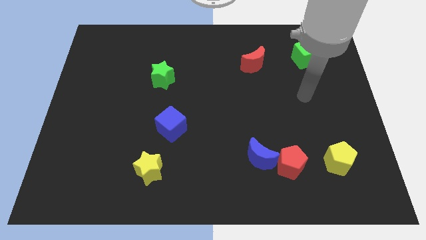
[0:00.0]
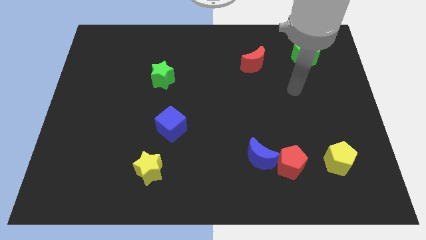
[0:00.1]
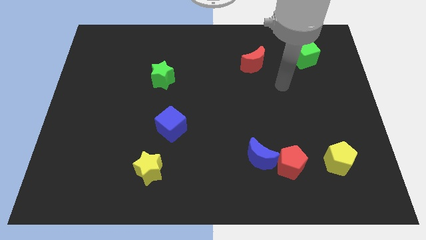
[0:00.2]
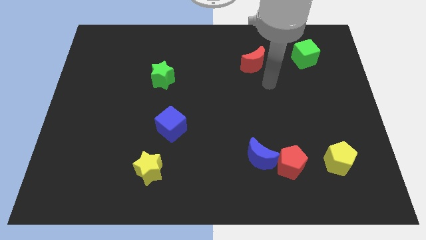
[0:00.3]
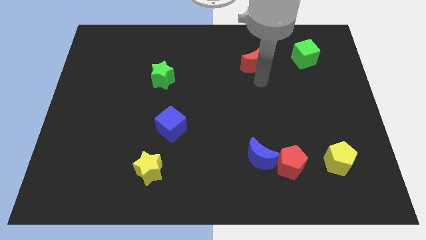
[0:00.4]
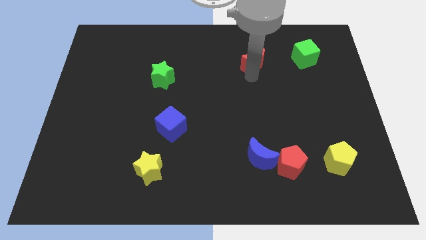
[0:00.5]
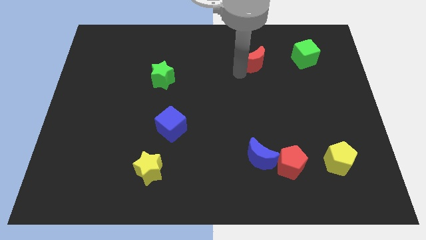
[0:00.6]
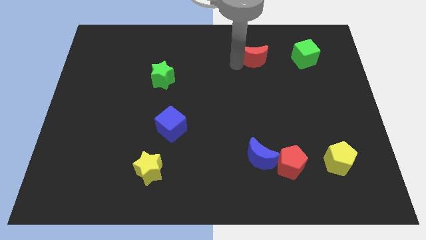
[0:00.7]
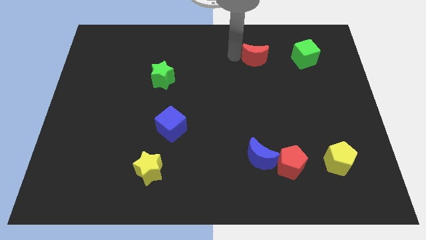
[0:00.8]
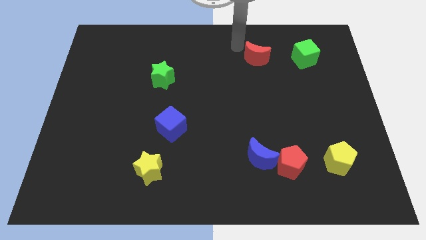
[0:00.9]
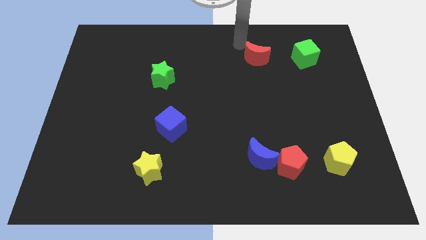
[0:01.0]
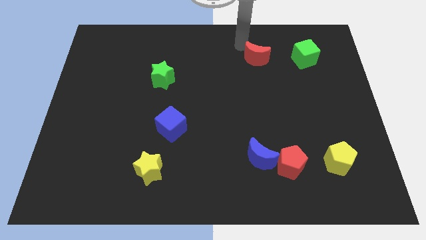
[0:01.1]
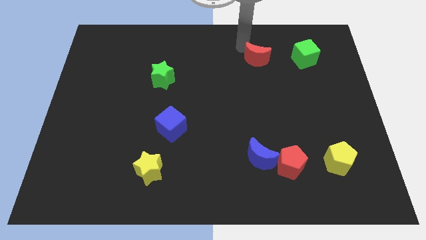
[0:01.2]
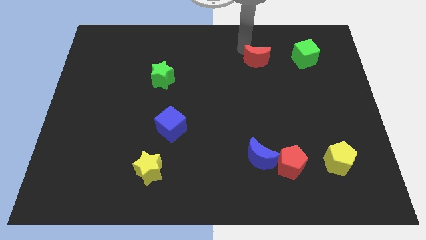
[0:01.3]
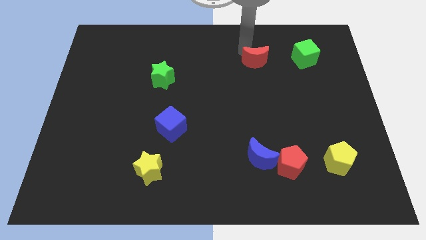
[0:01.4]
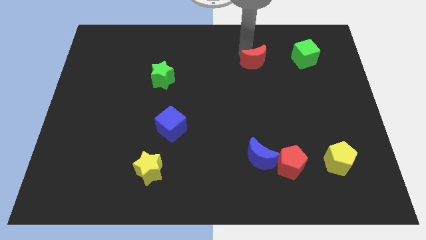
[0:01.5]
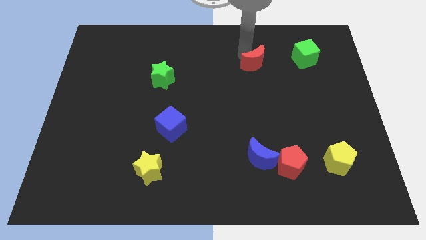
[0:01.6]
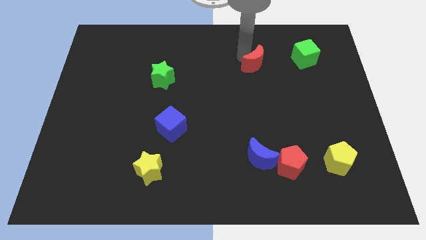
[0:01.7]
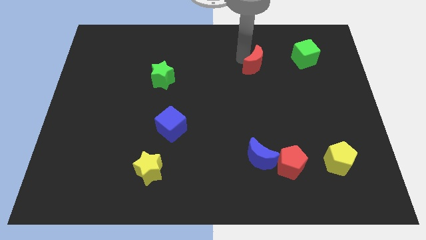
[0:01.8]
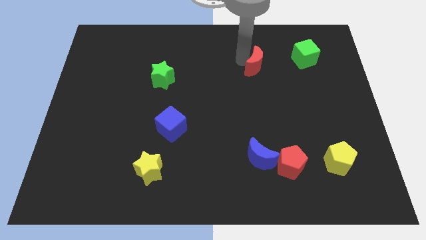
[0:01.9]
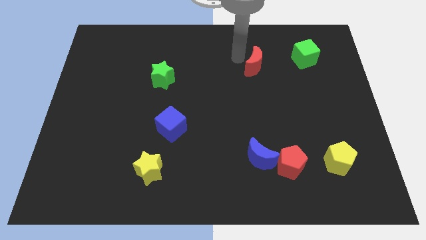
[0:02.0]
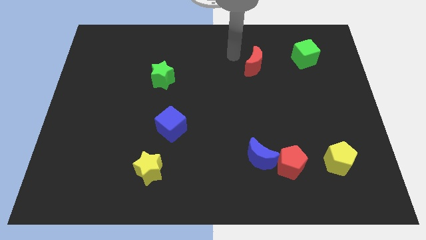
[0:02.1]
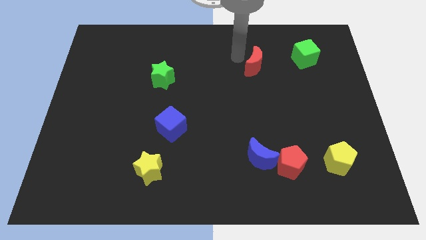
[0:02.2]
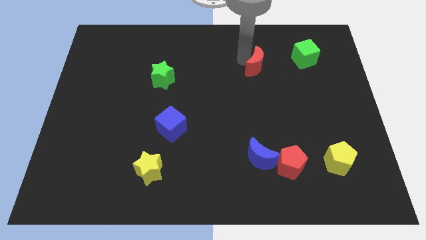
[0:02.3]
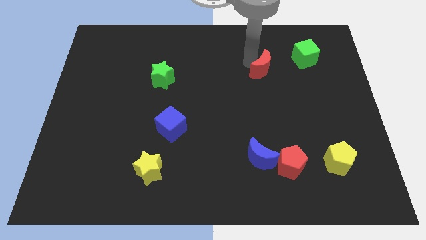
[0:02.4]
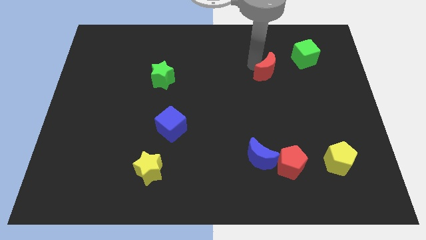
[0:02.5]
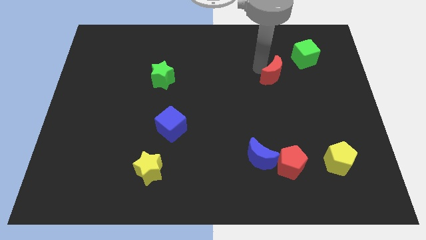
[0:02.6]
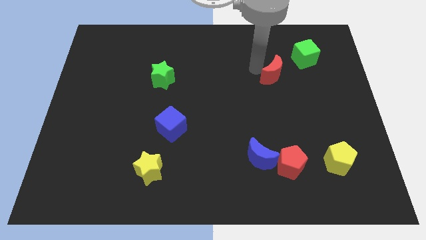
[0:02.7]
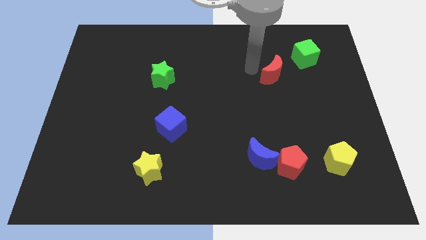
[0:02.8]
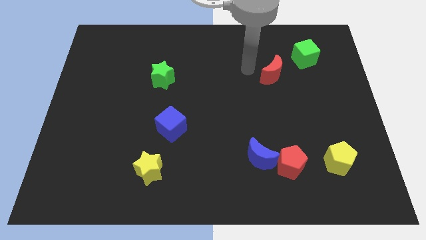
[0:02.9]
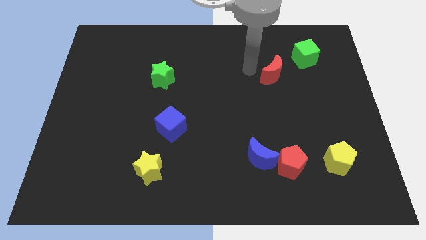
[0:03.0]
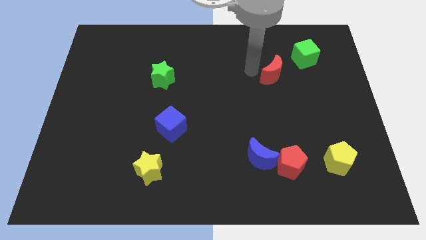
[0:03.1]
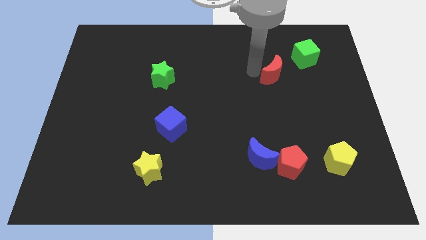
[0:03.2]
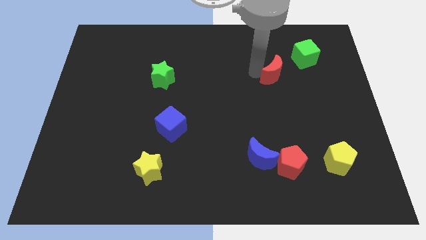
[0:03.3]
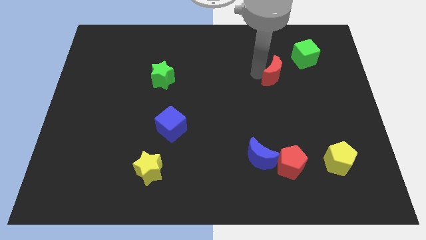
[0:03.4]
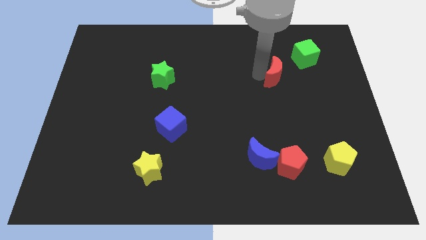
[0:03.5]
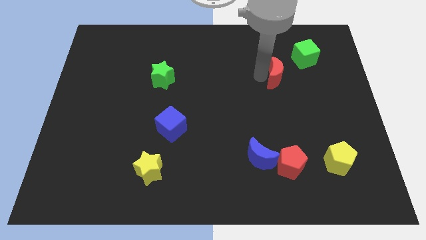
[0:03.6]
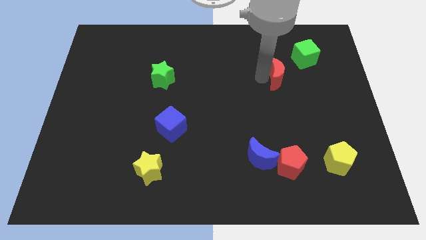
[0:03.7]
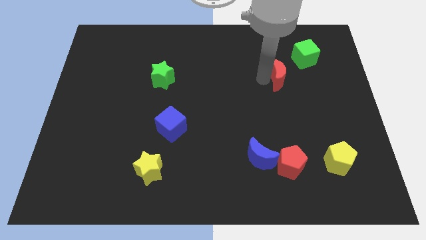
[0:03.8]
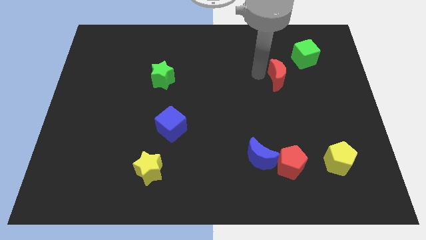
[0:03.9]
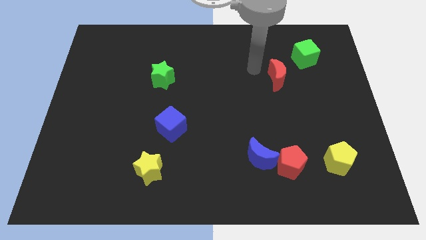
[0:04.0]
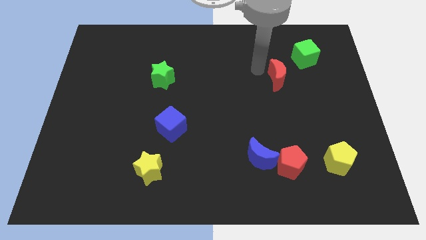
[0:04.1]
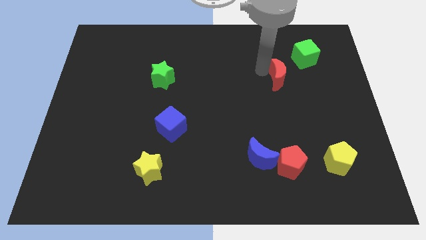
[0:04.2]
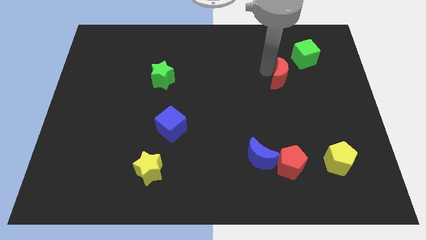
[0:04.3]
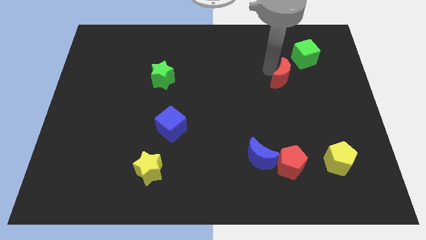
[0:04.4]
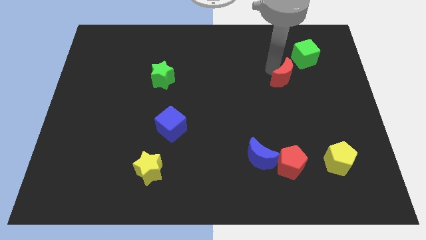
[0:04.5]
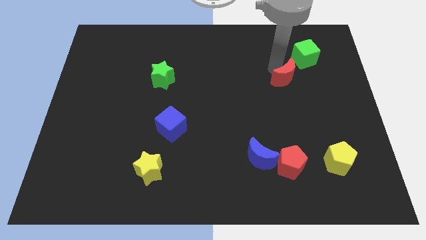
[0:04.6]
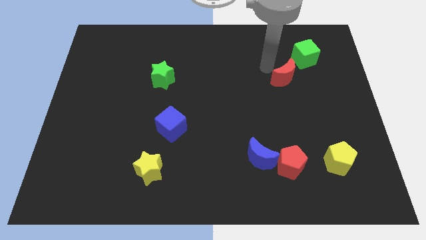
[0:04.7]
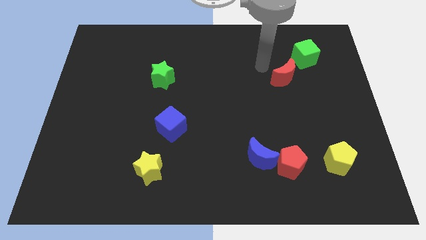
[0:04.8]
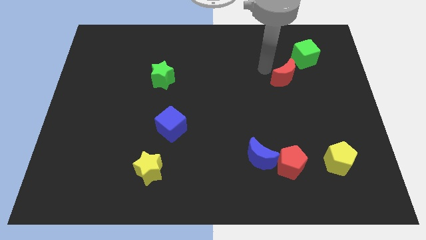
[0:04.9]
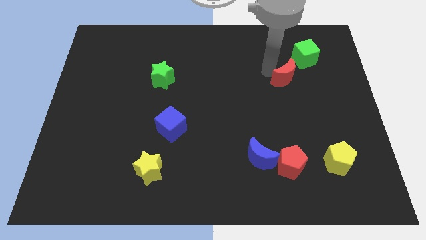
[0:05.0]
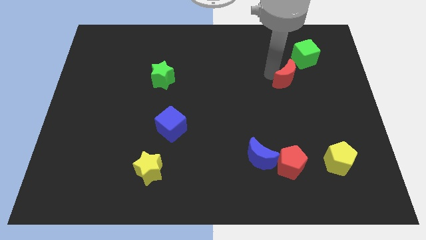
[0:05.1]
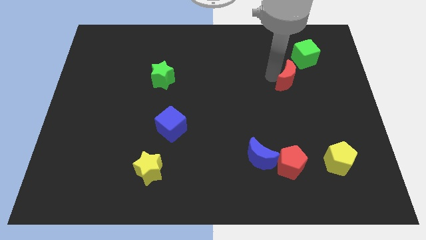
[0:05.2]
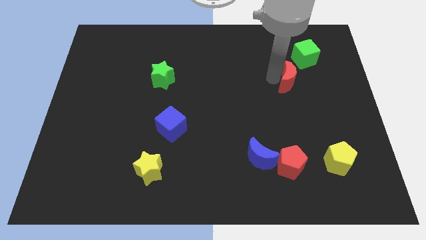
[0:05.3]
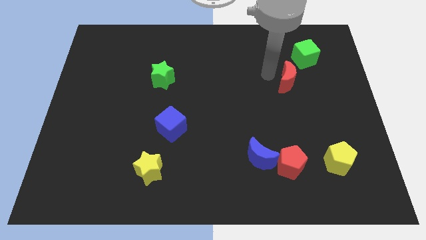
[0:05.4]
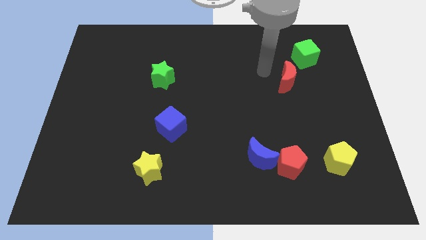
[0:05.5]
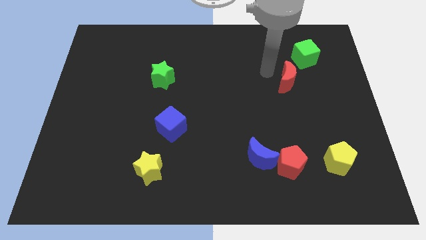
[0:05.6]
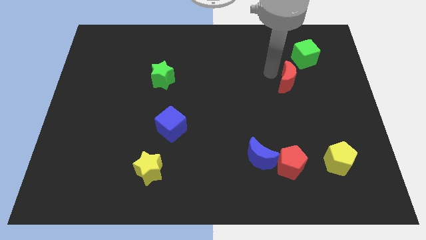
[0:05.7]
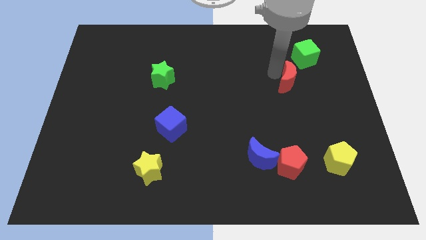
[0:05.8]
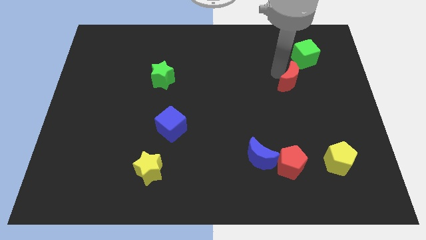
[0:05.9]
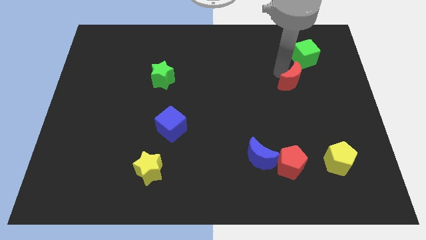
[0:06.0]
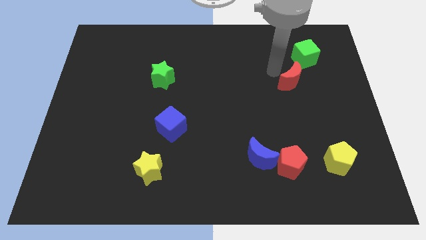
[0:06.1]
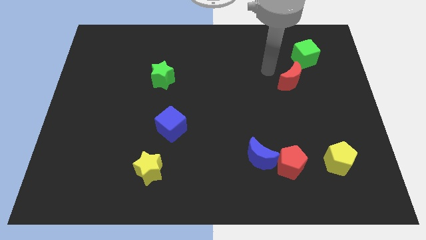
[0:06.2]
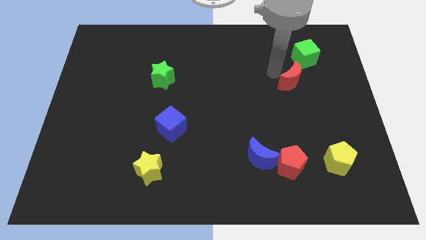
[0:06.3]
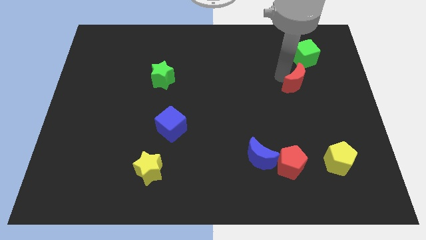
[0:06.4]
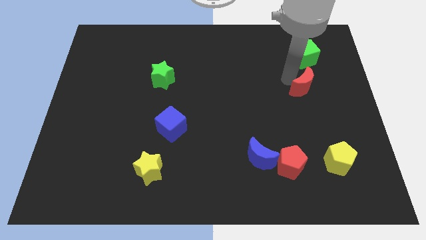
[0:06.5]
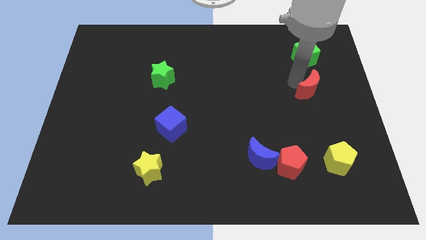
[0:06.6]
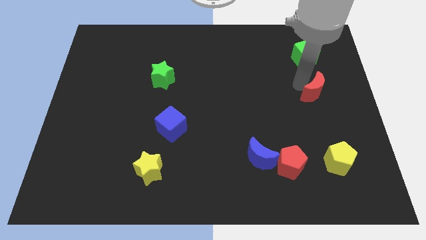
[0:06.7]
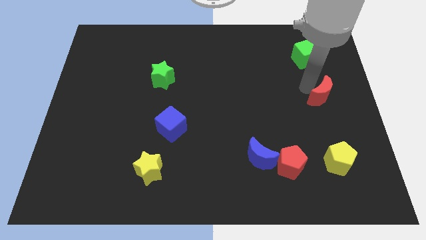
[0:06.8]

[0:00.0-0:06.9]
move the red moon to the right side

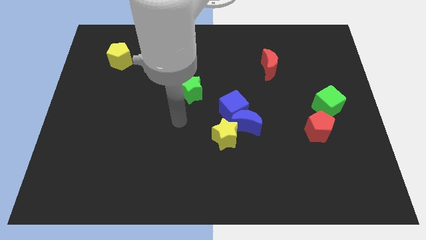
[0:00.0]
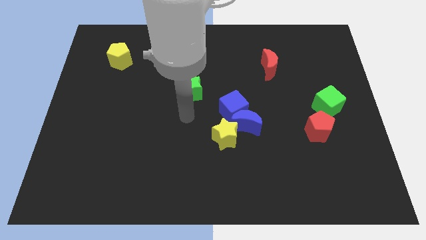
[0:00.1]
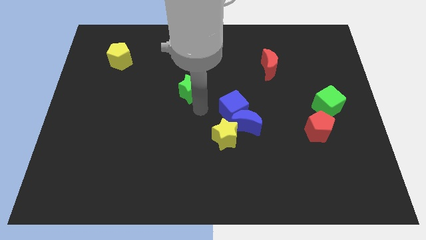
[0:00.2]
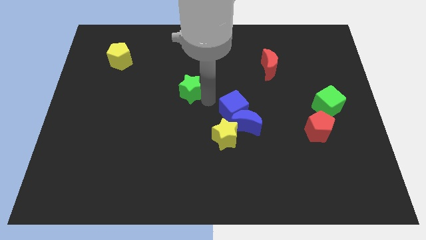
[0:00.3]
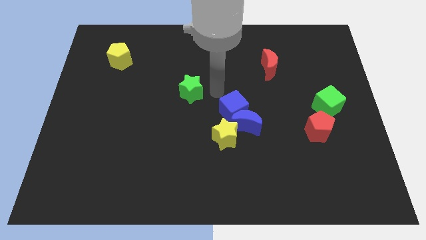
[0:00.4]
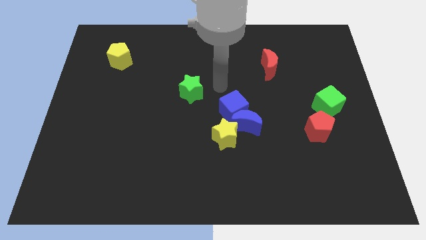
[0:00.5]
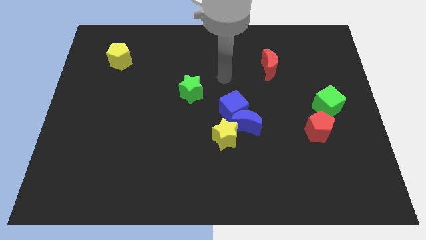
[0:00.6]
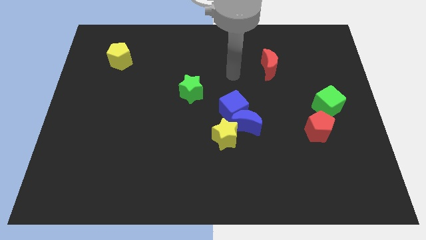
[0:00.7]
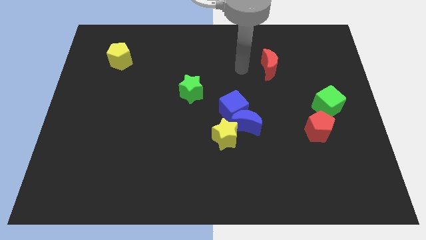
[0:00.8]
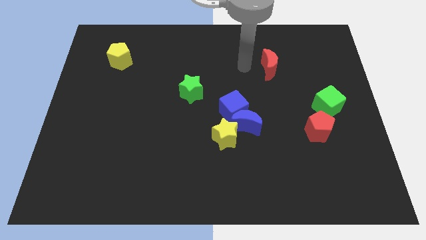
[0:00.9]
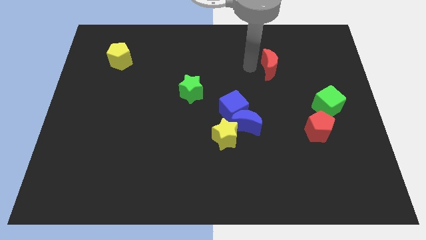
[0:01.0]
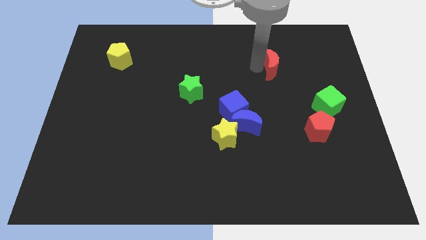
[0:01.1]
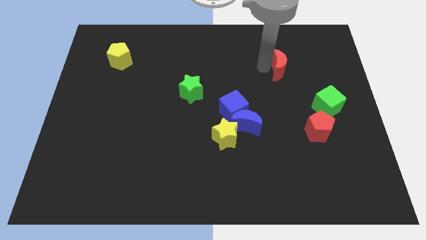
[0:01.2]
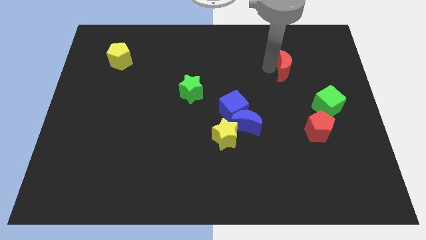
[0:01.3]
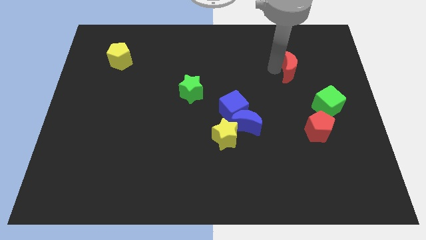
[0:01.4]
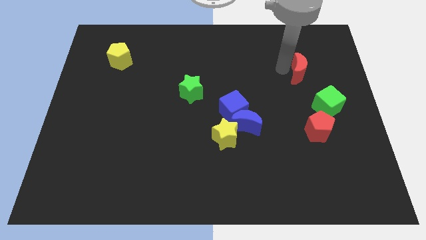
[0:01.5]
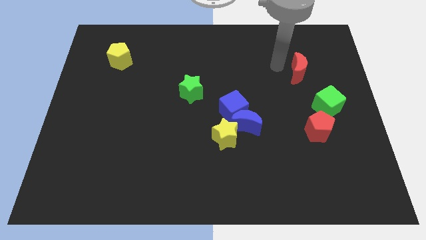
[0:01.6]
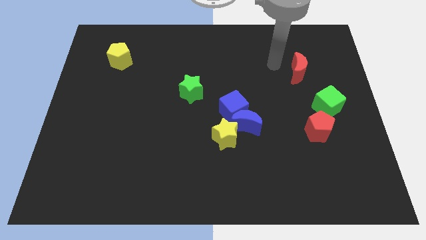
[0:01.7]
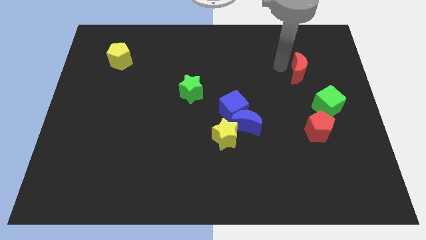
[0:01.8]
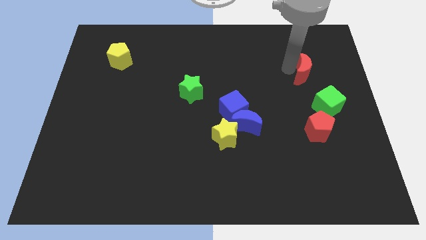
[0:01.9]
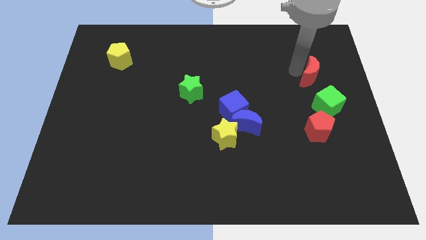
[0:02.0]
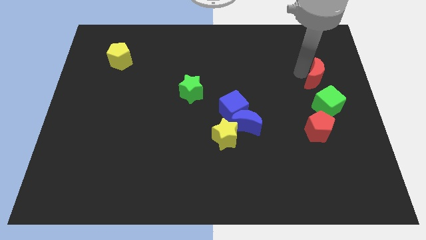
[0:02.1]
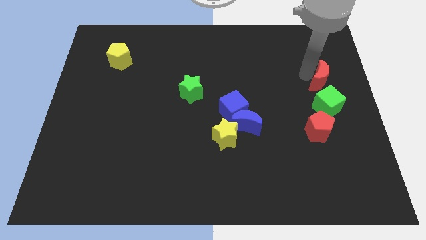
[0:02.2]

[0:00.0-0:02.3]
move the red moon to the center right
